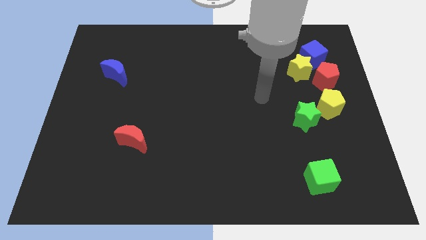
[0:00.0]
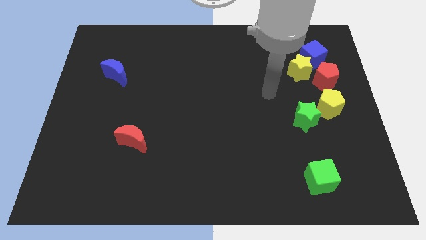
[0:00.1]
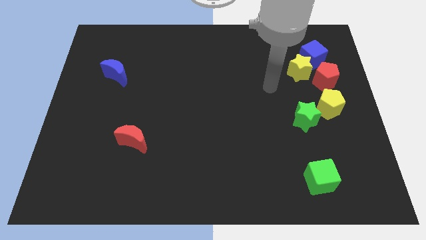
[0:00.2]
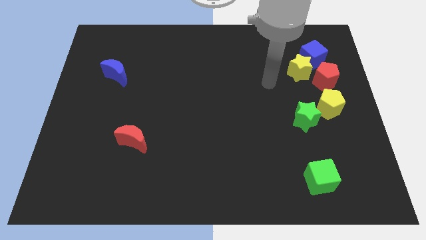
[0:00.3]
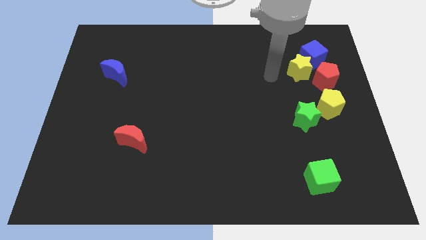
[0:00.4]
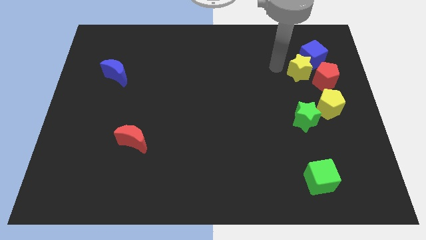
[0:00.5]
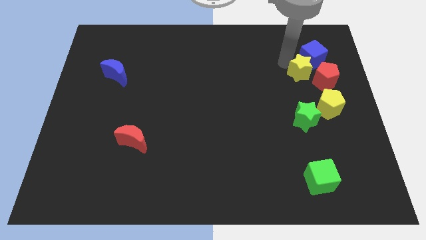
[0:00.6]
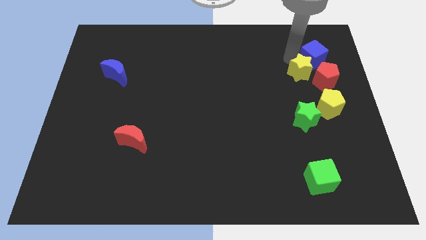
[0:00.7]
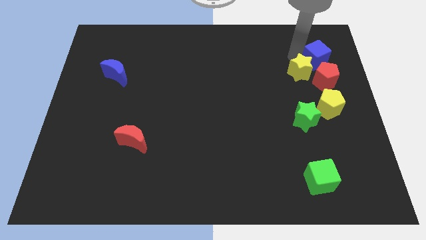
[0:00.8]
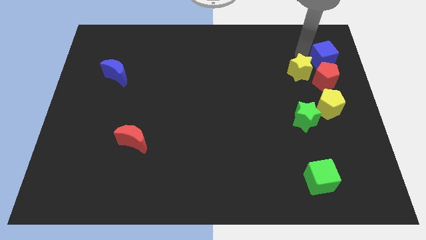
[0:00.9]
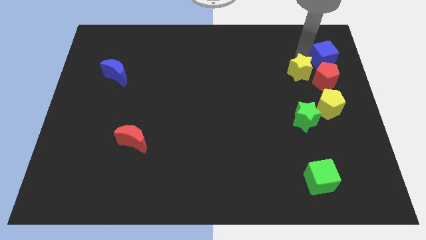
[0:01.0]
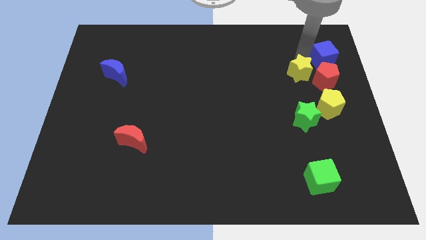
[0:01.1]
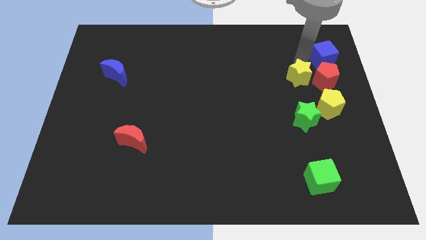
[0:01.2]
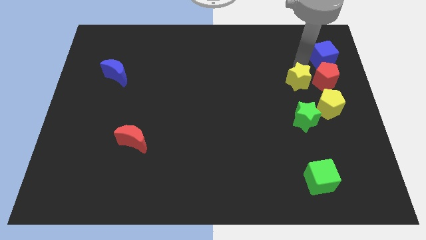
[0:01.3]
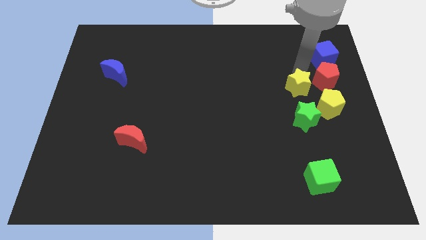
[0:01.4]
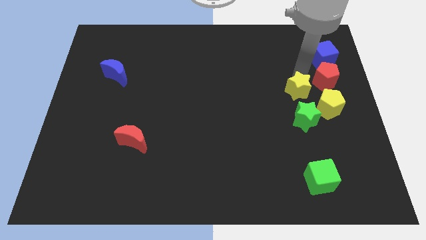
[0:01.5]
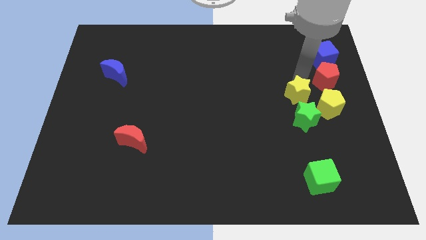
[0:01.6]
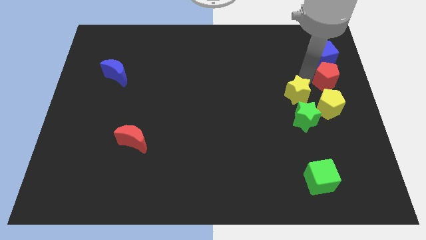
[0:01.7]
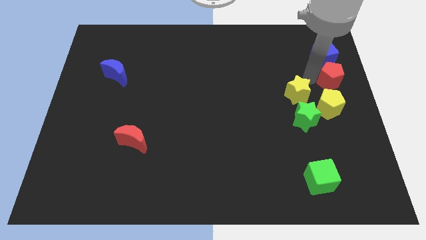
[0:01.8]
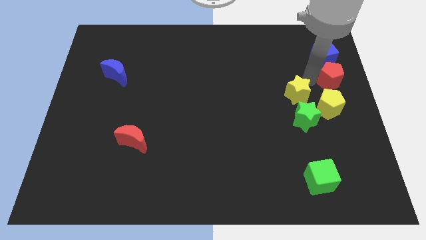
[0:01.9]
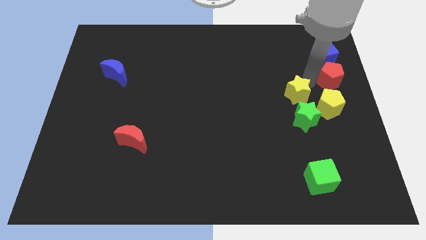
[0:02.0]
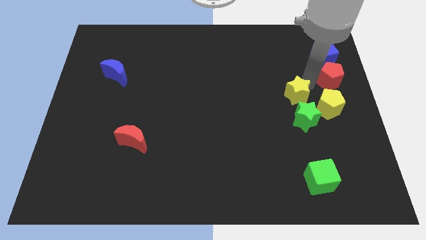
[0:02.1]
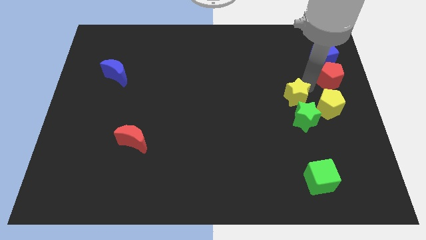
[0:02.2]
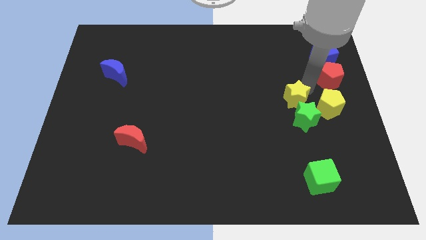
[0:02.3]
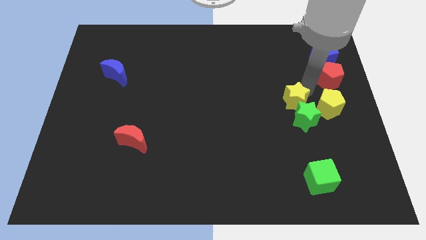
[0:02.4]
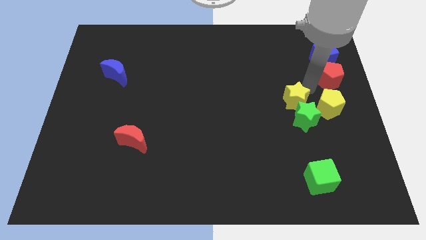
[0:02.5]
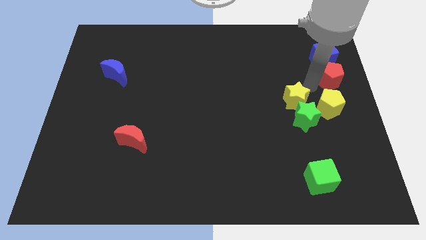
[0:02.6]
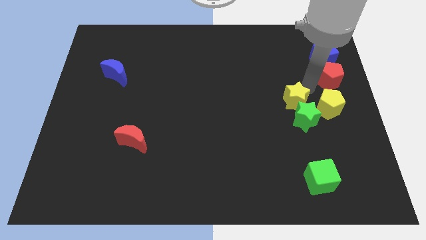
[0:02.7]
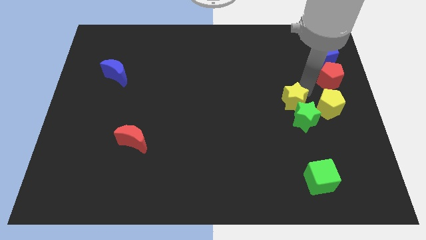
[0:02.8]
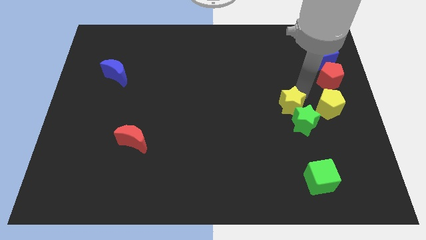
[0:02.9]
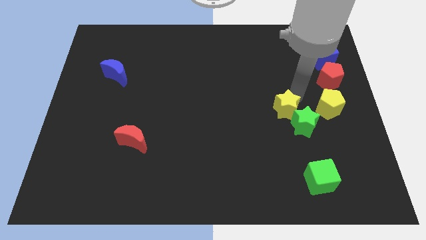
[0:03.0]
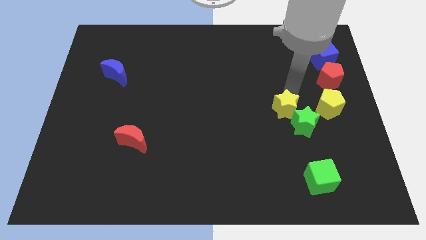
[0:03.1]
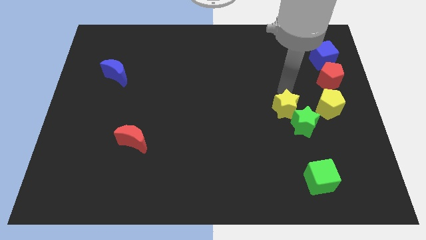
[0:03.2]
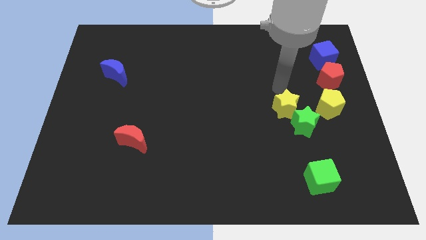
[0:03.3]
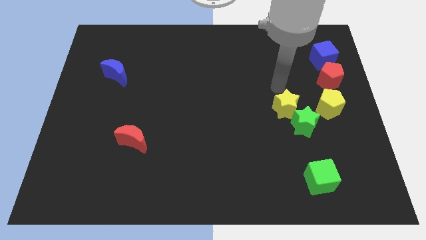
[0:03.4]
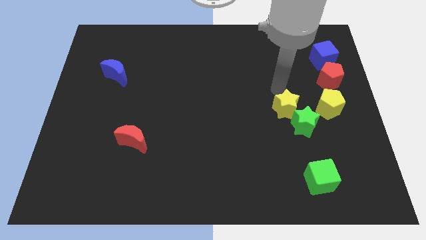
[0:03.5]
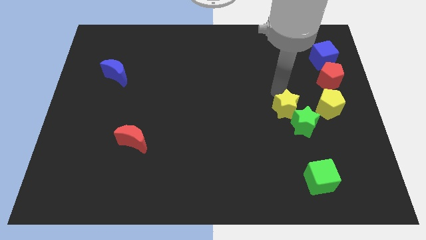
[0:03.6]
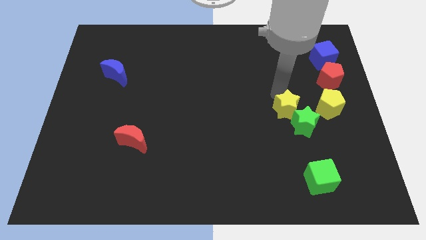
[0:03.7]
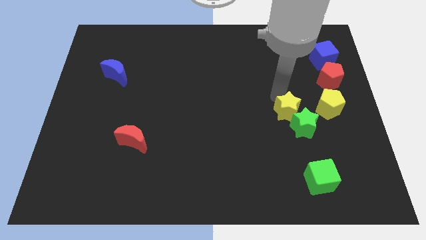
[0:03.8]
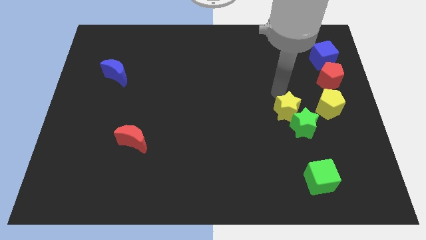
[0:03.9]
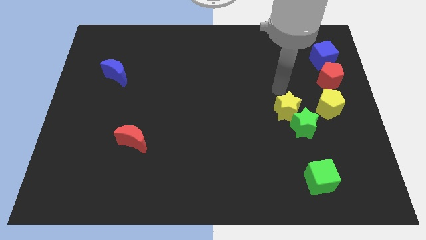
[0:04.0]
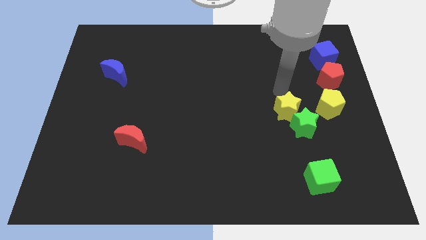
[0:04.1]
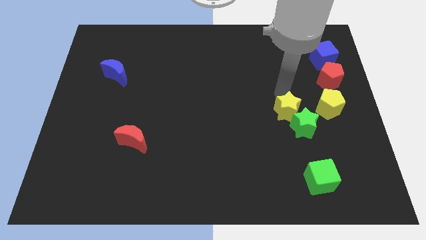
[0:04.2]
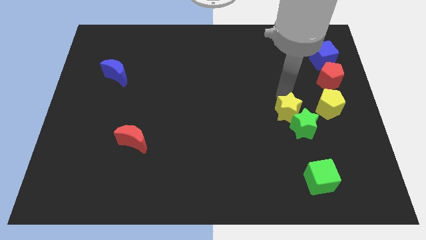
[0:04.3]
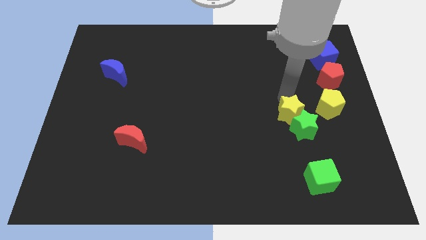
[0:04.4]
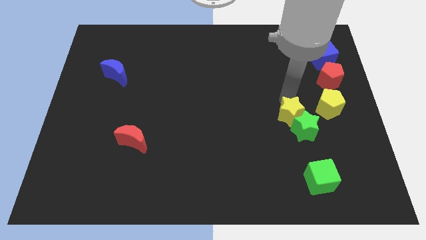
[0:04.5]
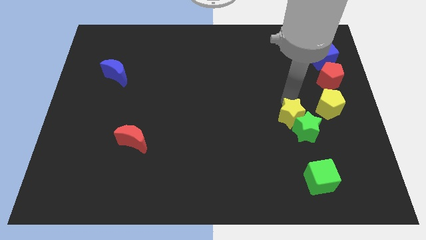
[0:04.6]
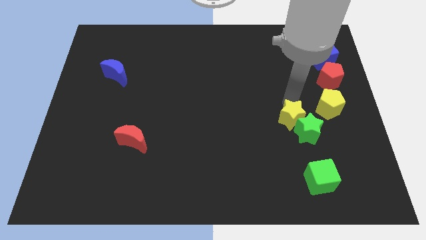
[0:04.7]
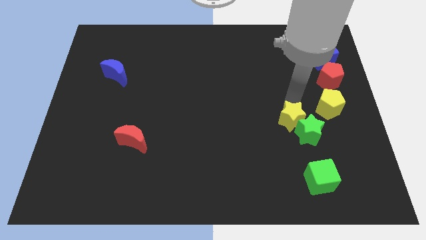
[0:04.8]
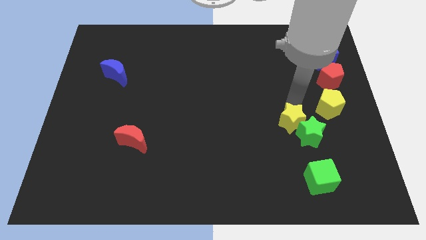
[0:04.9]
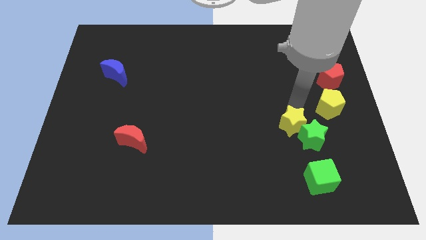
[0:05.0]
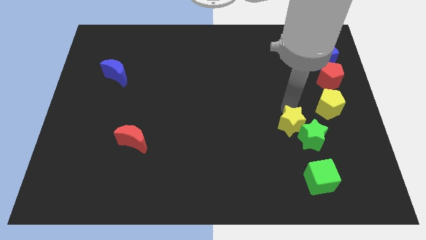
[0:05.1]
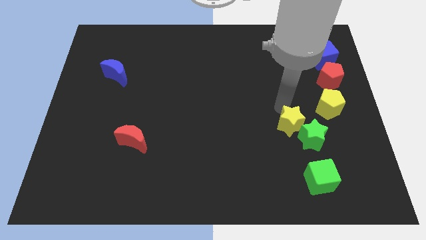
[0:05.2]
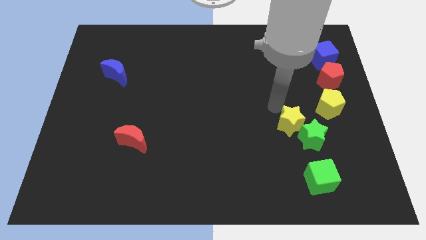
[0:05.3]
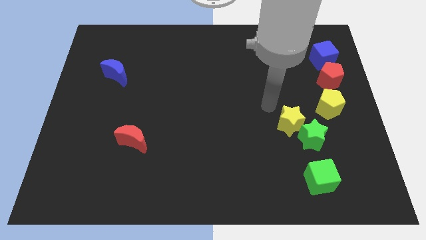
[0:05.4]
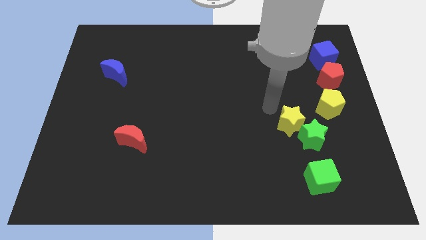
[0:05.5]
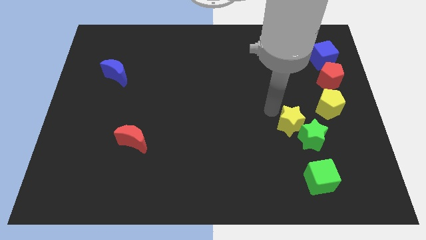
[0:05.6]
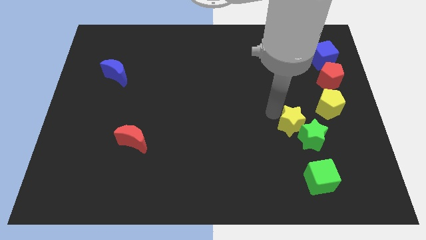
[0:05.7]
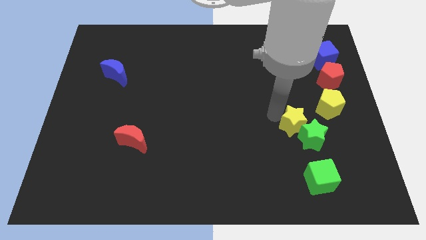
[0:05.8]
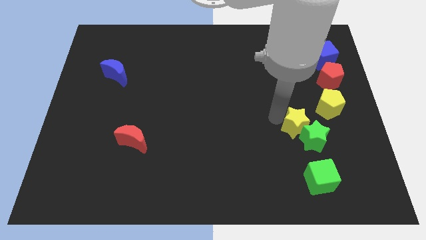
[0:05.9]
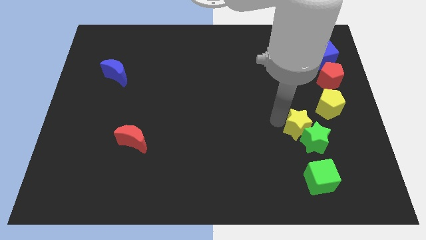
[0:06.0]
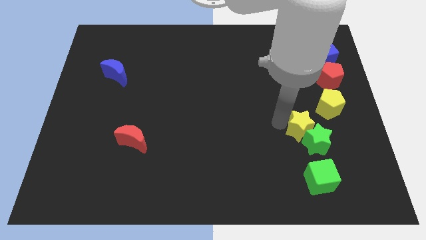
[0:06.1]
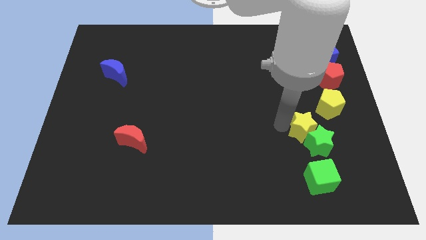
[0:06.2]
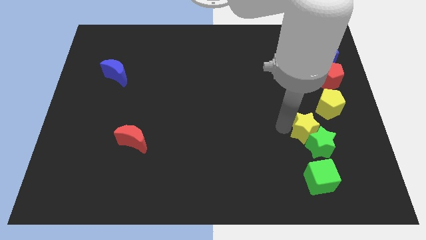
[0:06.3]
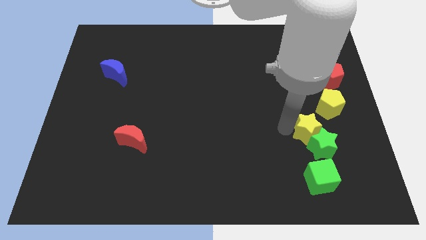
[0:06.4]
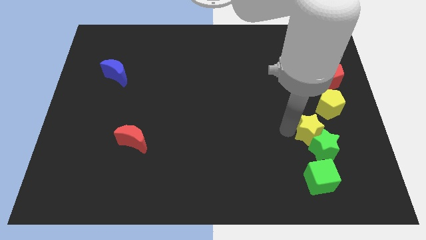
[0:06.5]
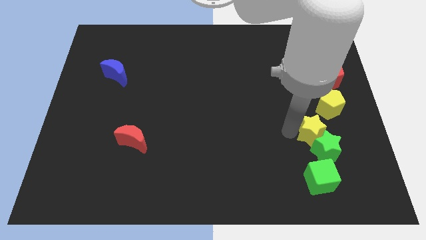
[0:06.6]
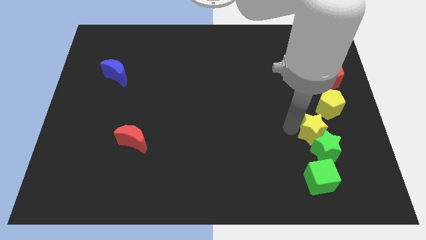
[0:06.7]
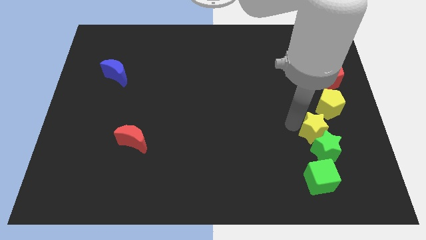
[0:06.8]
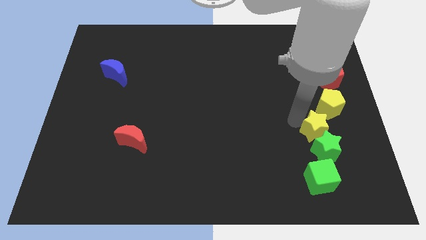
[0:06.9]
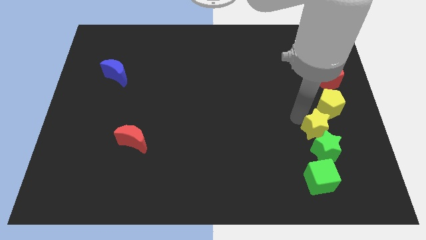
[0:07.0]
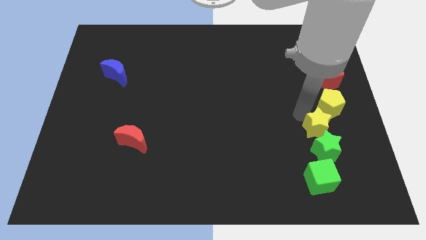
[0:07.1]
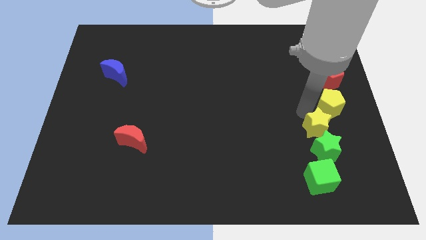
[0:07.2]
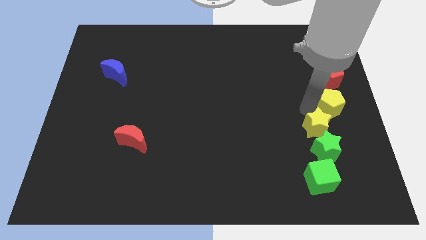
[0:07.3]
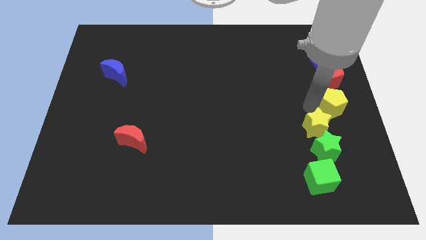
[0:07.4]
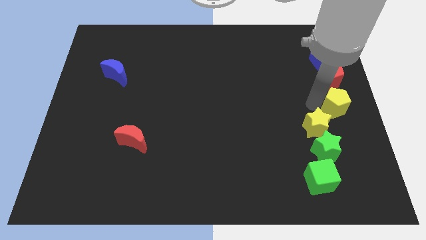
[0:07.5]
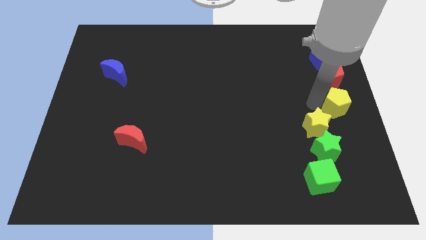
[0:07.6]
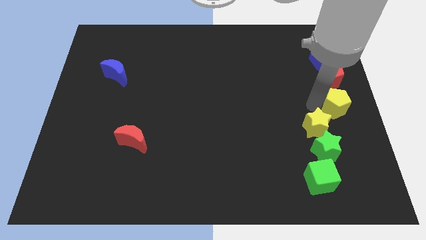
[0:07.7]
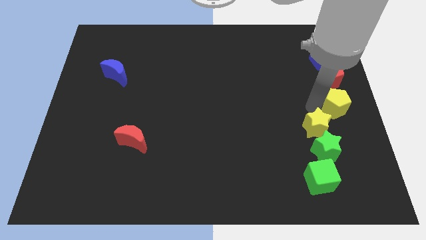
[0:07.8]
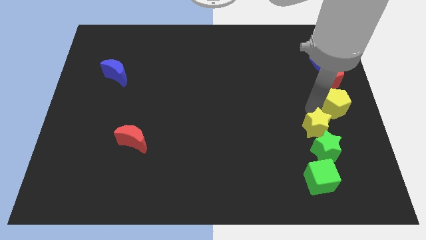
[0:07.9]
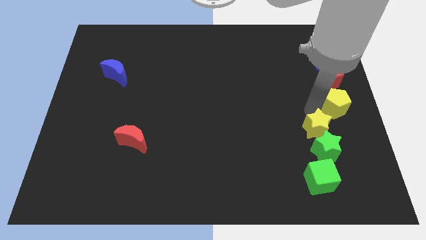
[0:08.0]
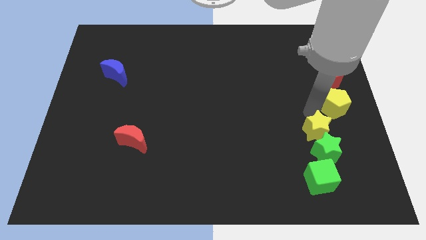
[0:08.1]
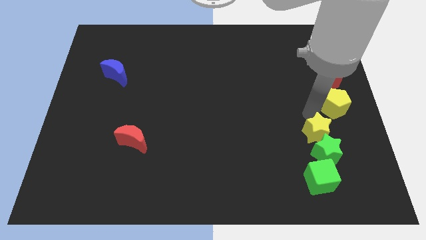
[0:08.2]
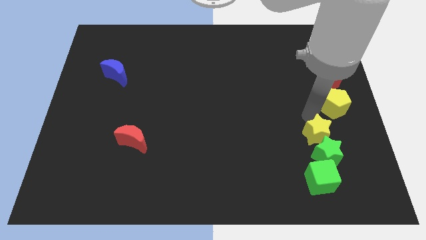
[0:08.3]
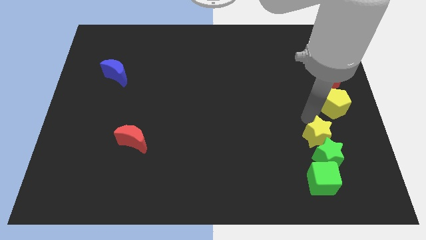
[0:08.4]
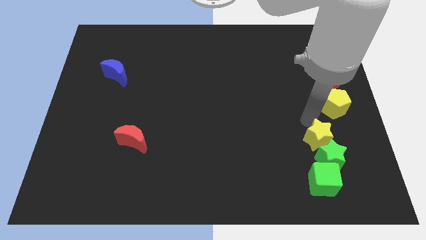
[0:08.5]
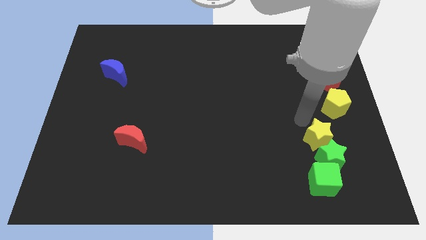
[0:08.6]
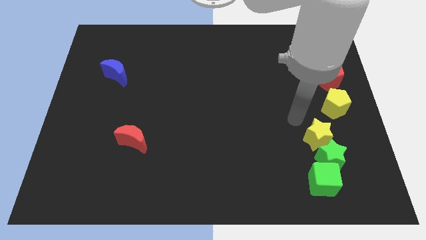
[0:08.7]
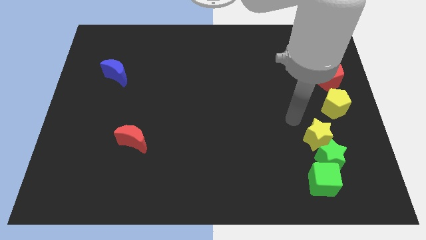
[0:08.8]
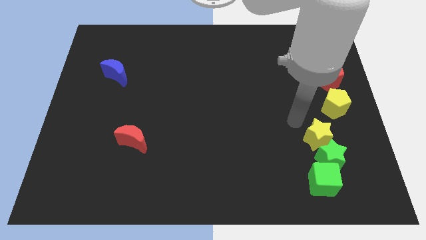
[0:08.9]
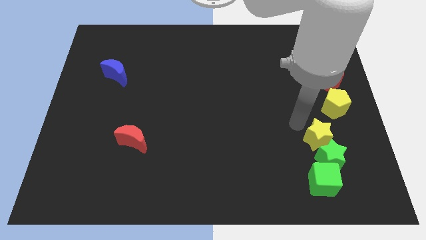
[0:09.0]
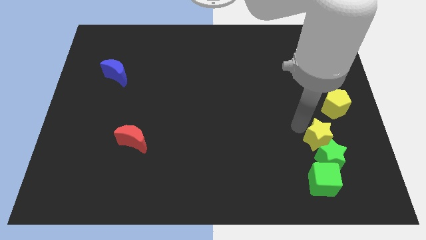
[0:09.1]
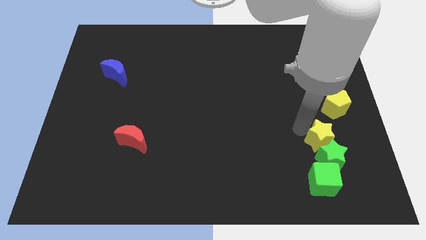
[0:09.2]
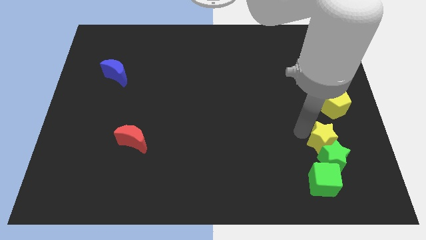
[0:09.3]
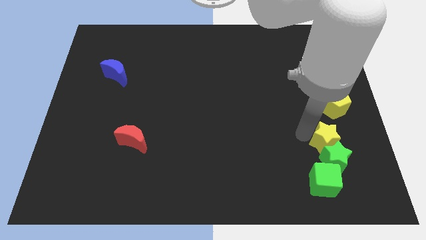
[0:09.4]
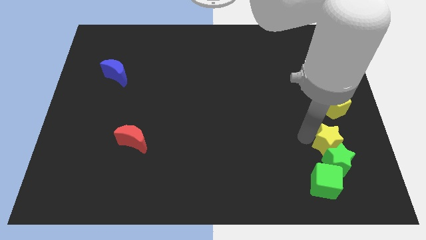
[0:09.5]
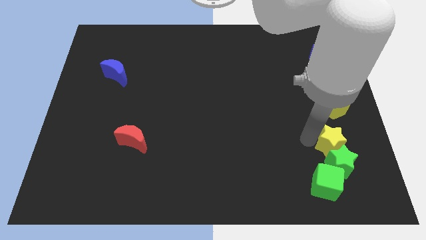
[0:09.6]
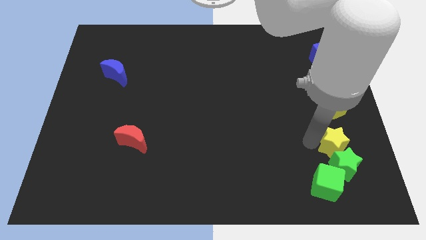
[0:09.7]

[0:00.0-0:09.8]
slide the yellow star diagonally up and to the right of the green cube
